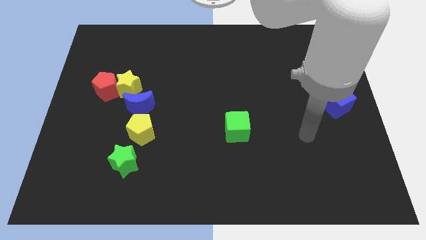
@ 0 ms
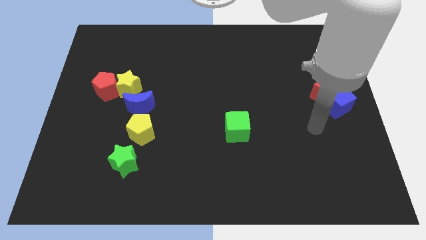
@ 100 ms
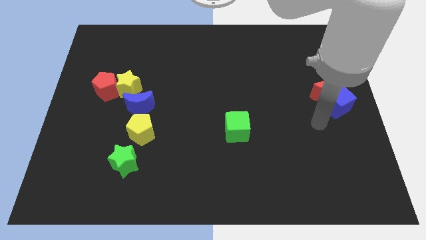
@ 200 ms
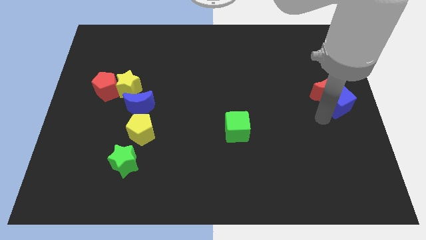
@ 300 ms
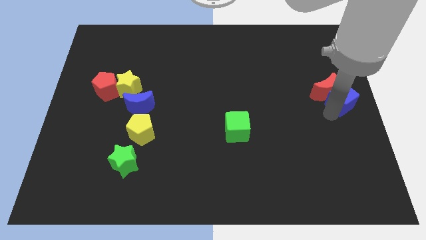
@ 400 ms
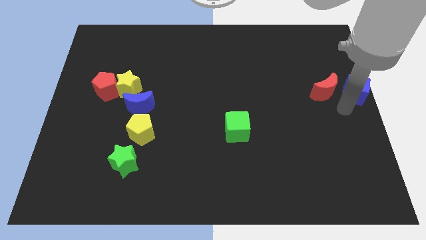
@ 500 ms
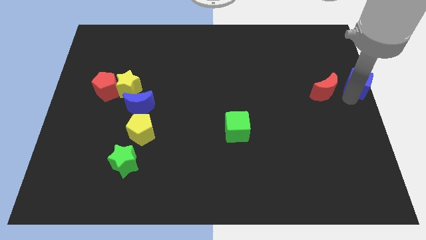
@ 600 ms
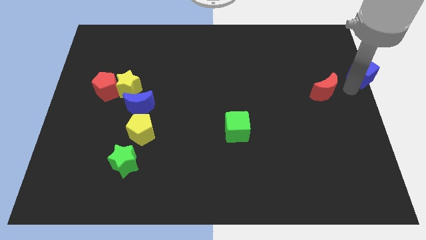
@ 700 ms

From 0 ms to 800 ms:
move the red moon away from the blue cube

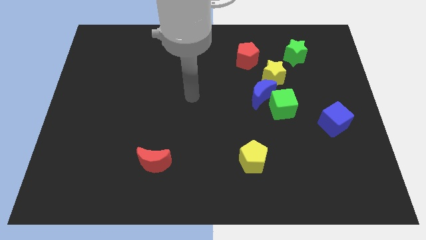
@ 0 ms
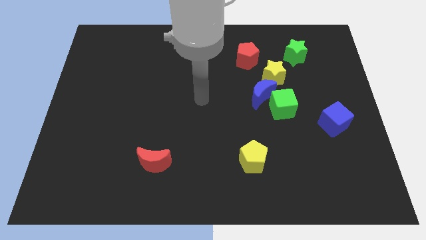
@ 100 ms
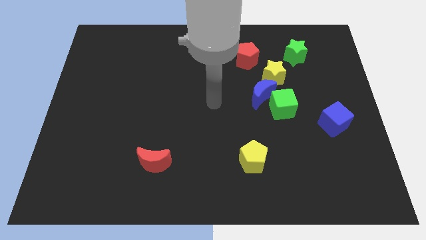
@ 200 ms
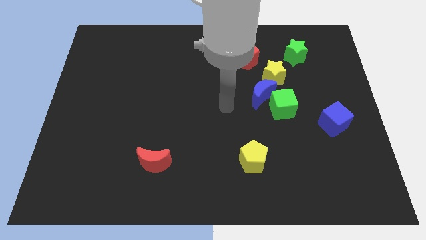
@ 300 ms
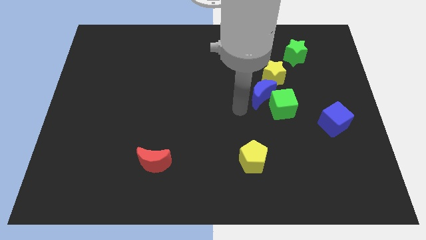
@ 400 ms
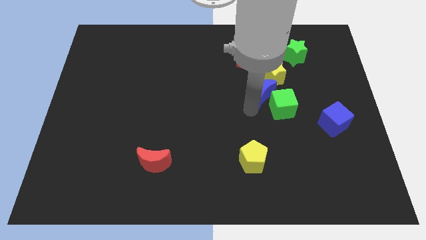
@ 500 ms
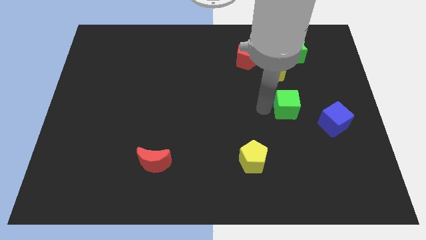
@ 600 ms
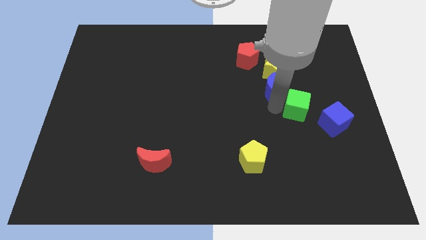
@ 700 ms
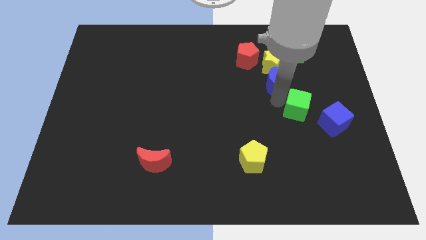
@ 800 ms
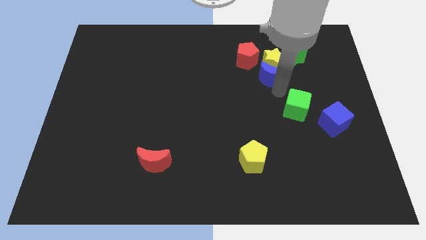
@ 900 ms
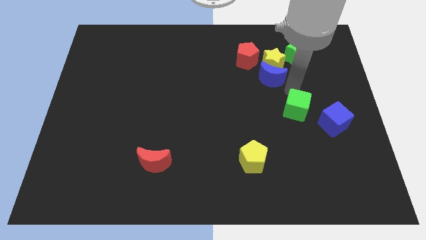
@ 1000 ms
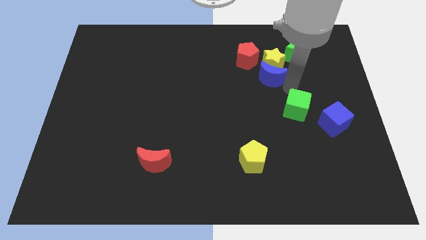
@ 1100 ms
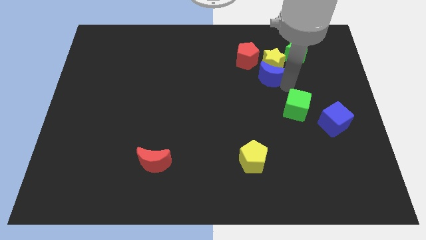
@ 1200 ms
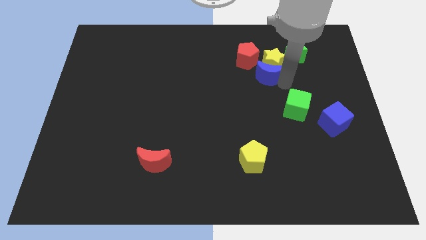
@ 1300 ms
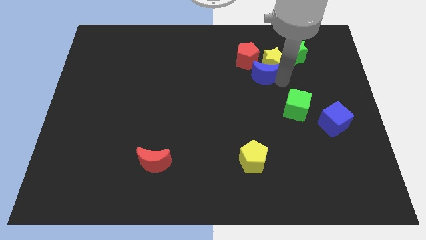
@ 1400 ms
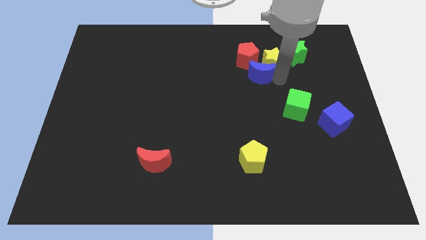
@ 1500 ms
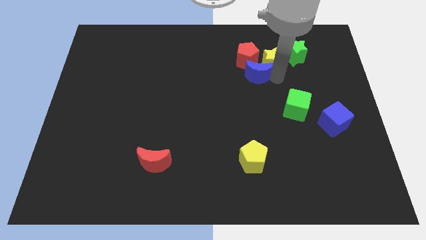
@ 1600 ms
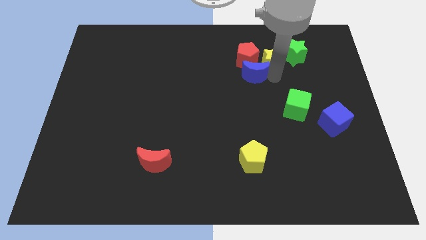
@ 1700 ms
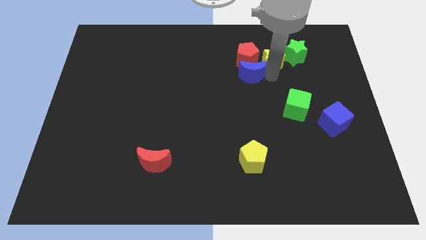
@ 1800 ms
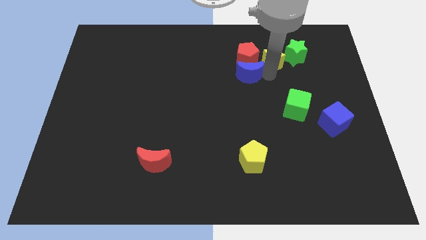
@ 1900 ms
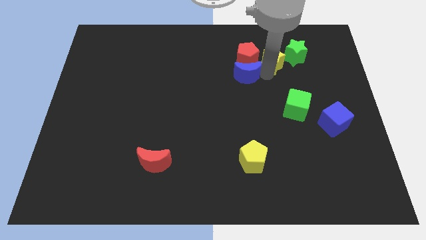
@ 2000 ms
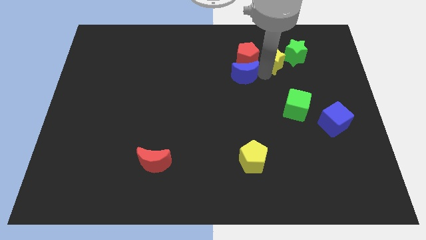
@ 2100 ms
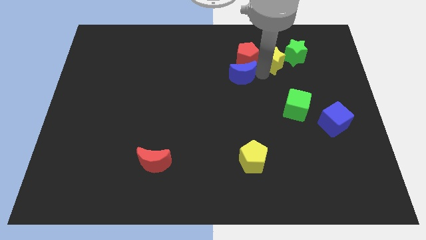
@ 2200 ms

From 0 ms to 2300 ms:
pull the blue moon apart from the green cube and yellow star

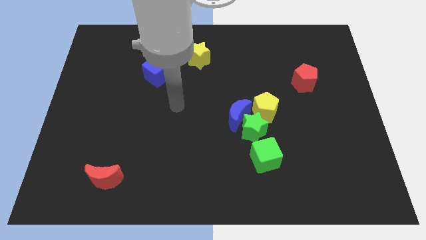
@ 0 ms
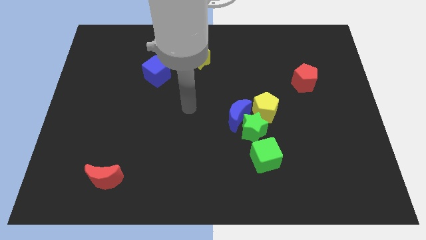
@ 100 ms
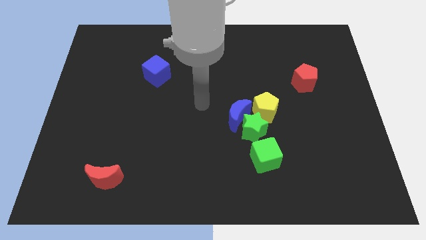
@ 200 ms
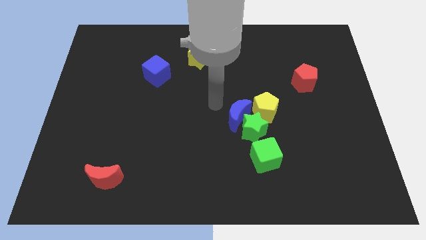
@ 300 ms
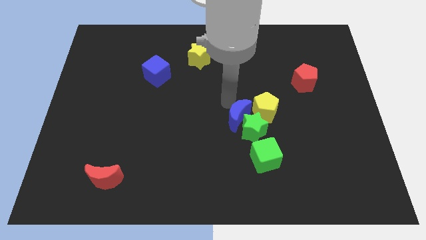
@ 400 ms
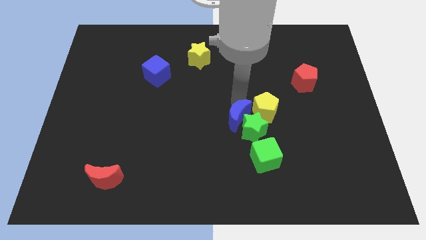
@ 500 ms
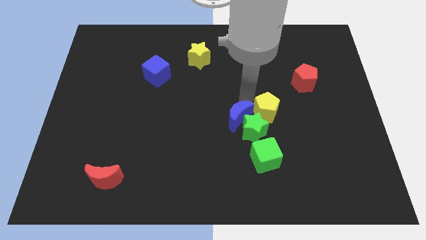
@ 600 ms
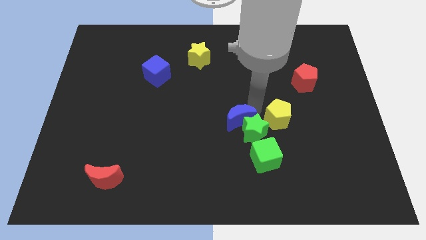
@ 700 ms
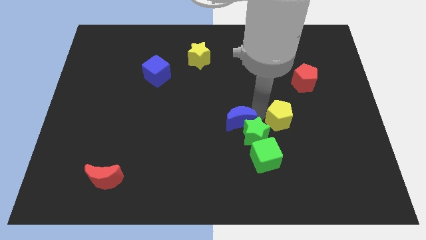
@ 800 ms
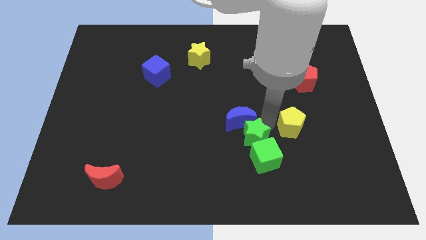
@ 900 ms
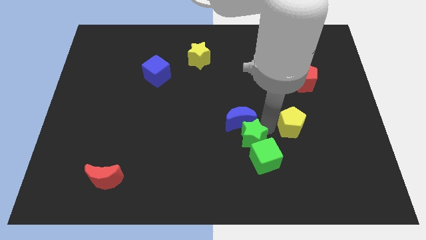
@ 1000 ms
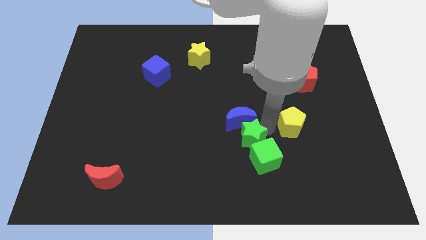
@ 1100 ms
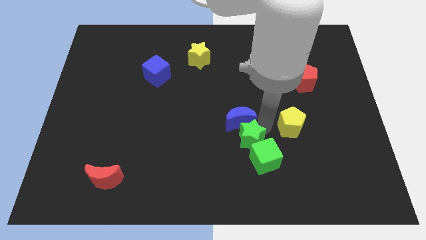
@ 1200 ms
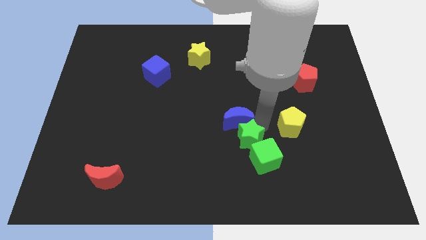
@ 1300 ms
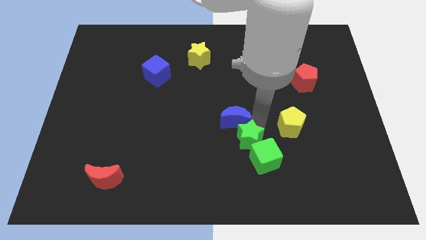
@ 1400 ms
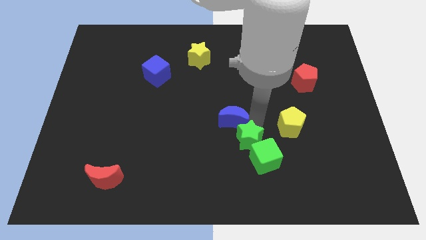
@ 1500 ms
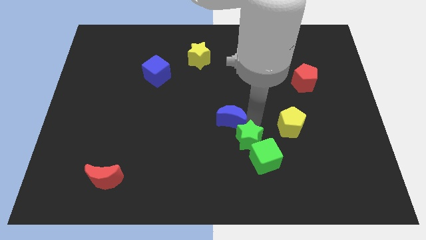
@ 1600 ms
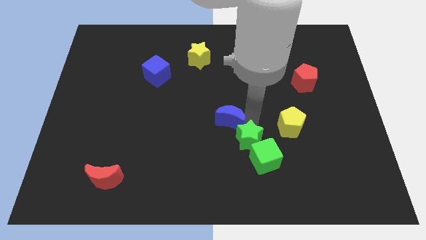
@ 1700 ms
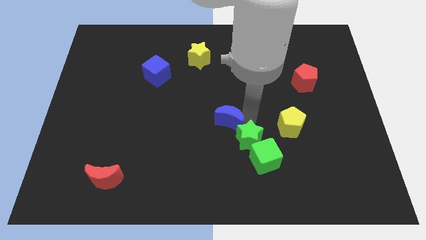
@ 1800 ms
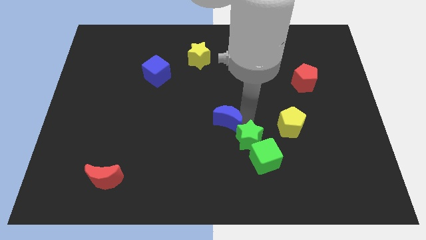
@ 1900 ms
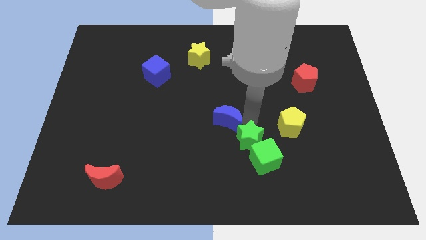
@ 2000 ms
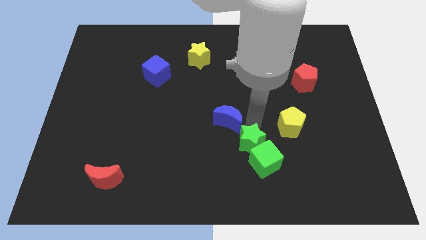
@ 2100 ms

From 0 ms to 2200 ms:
pull the blue moon apart from the green star and yellow pentagon

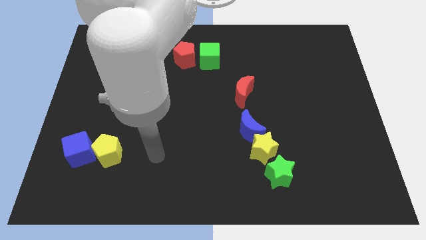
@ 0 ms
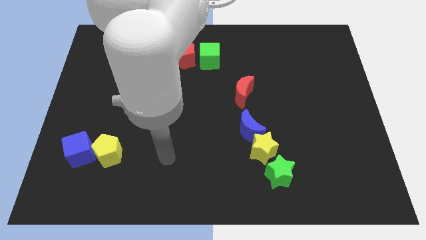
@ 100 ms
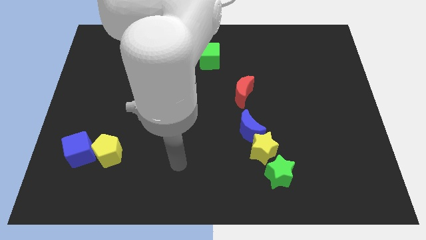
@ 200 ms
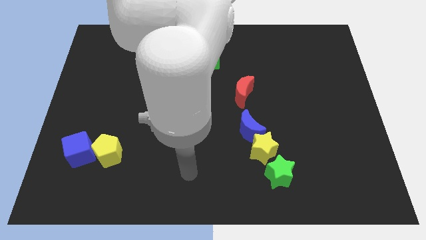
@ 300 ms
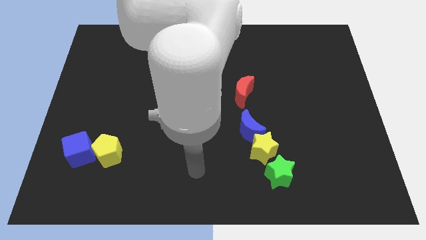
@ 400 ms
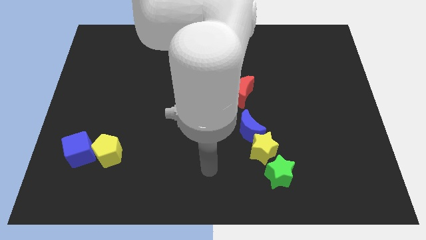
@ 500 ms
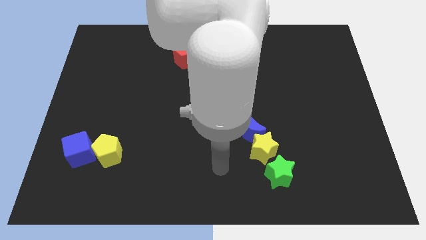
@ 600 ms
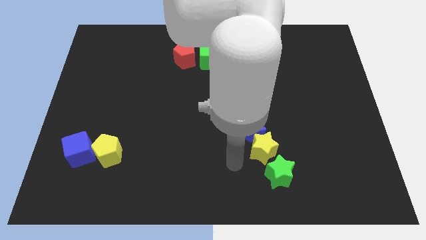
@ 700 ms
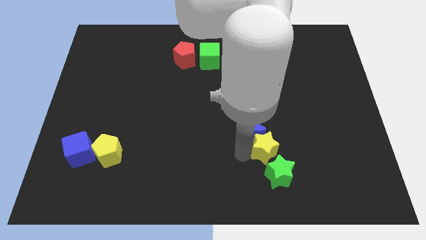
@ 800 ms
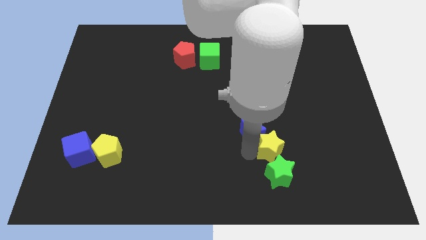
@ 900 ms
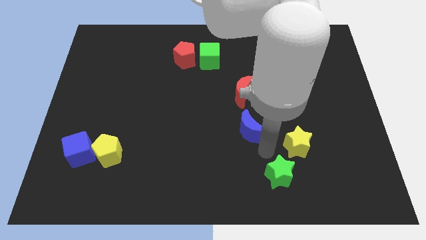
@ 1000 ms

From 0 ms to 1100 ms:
separate the blue moon from the yellow star

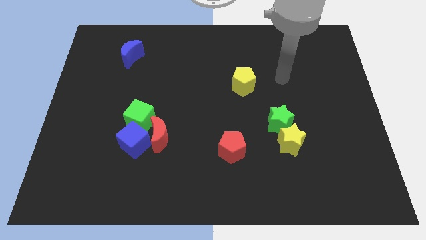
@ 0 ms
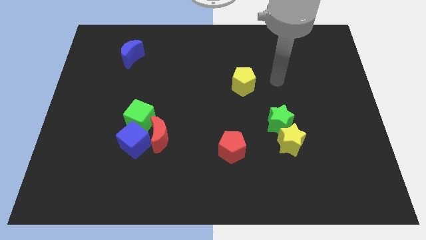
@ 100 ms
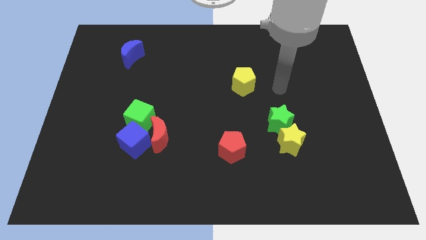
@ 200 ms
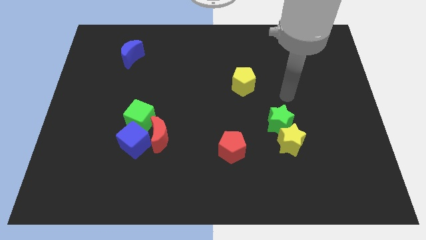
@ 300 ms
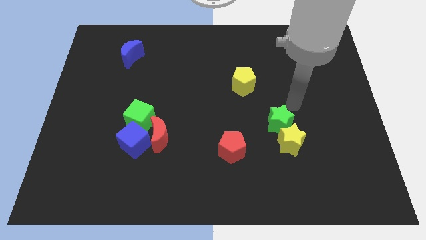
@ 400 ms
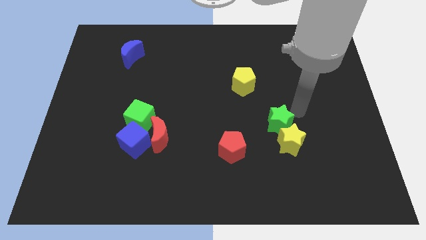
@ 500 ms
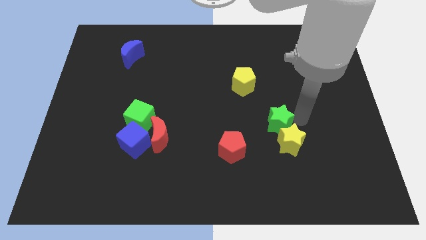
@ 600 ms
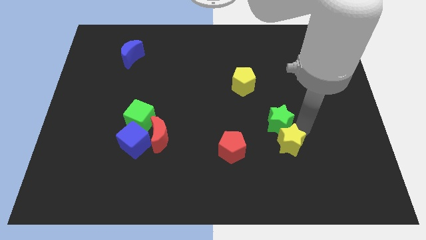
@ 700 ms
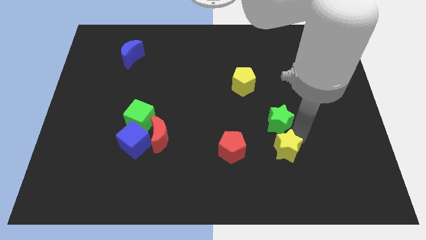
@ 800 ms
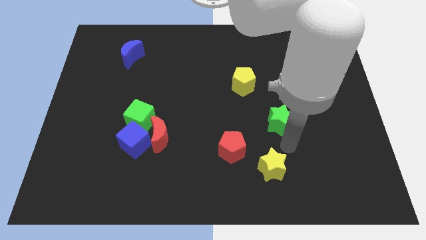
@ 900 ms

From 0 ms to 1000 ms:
pull the green star apart from the yellow star

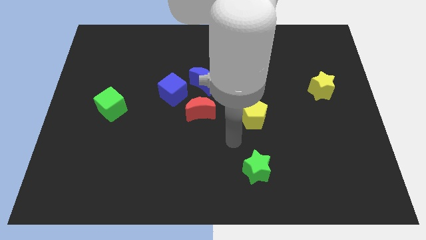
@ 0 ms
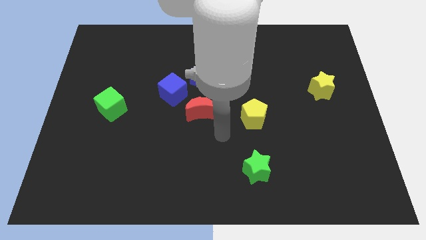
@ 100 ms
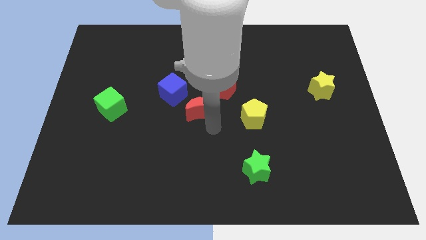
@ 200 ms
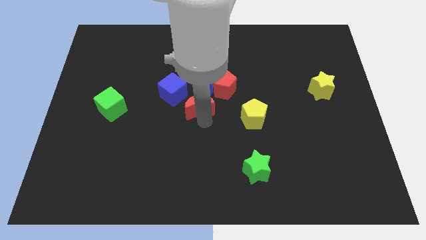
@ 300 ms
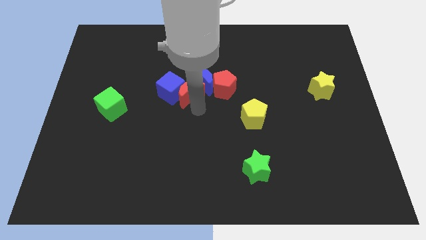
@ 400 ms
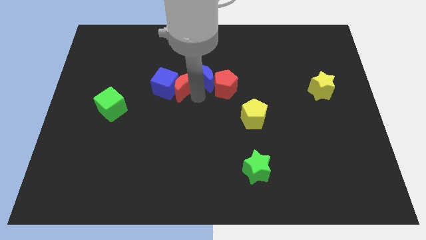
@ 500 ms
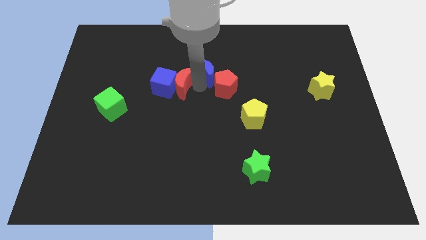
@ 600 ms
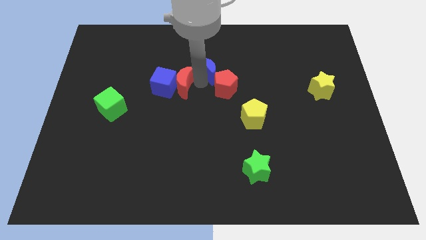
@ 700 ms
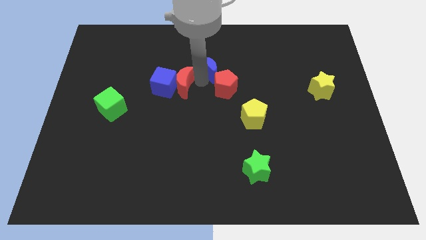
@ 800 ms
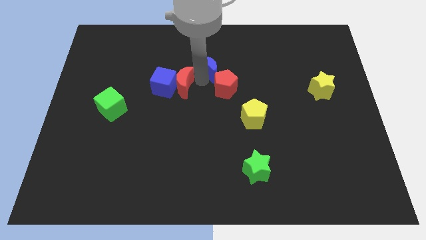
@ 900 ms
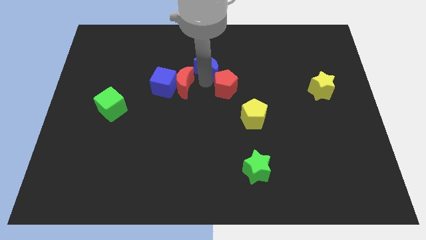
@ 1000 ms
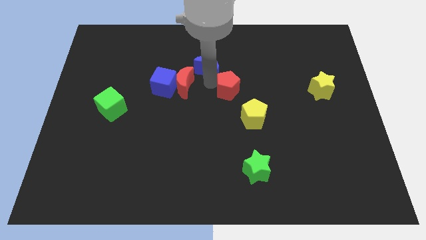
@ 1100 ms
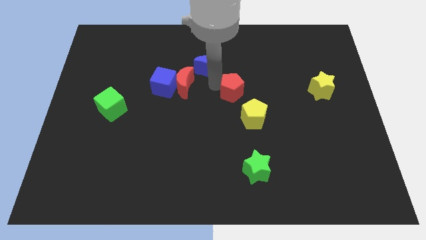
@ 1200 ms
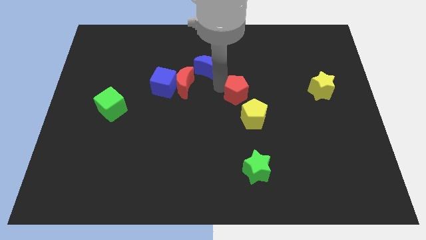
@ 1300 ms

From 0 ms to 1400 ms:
separate the red pentagon from the blue moon and red moon

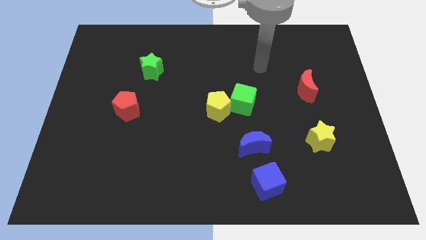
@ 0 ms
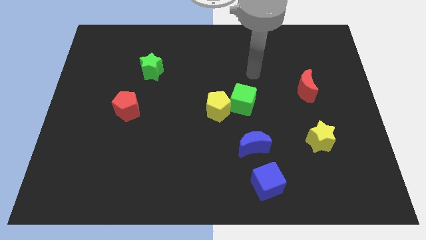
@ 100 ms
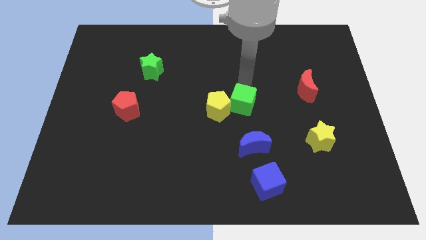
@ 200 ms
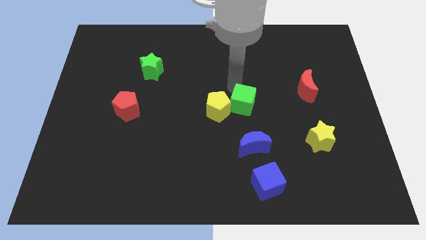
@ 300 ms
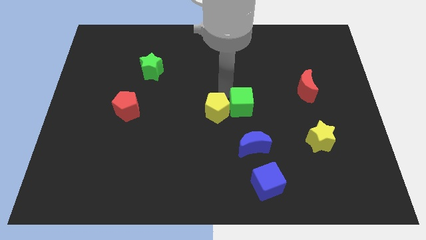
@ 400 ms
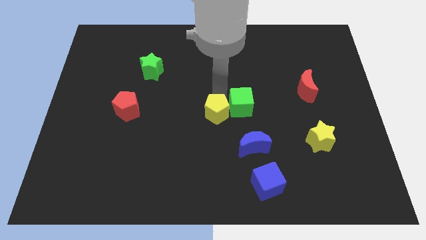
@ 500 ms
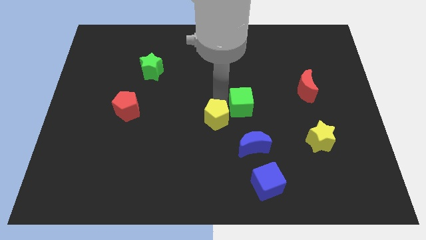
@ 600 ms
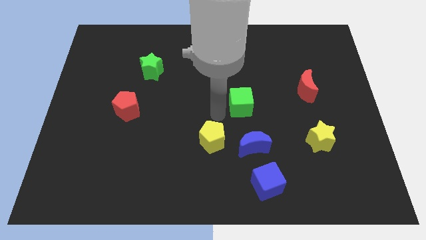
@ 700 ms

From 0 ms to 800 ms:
pull the green cube apart from the yellow pentagon
